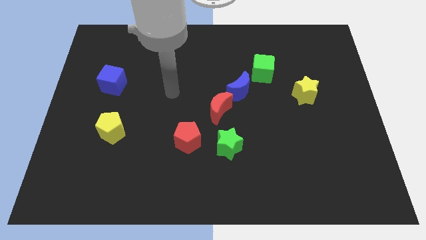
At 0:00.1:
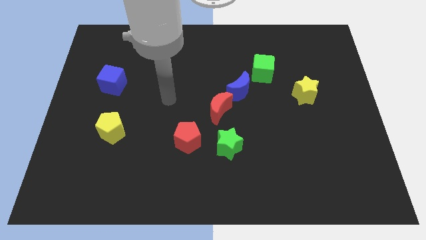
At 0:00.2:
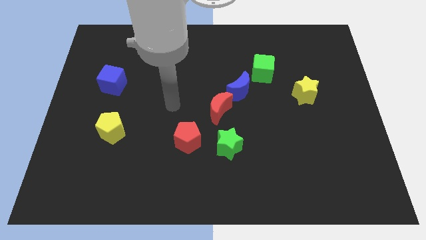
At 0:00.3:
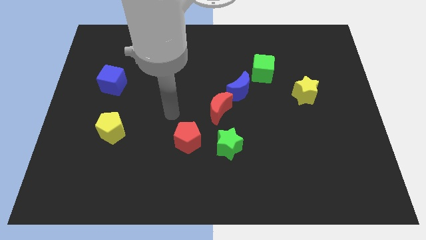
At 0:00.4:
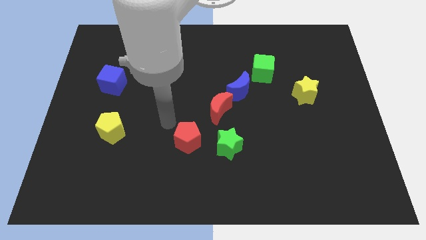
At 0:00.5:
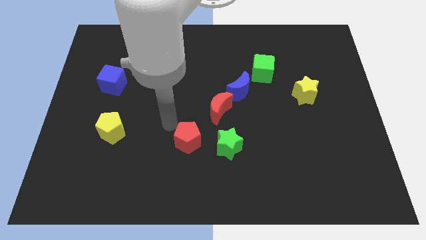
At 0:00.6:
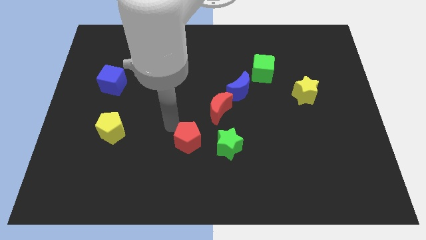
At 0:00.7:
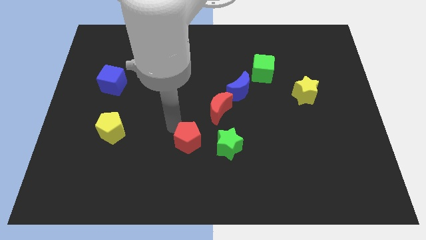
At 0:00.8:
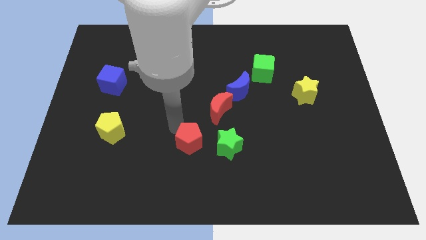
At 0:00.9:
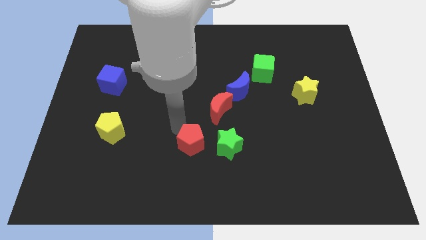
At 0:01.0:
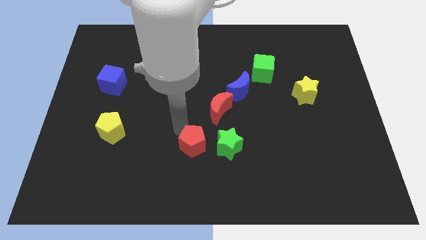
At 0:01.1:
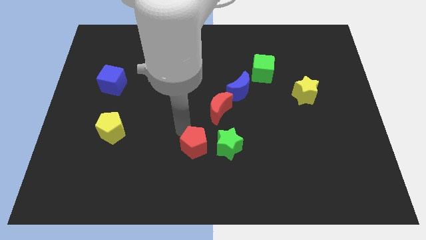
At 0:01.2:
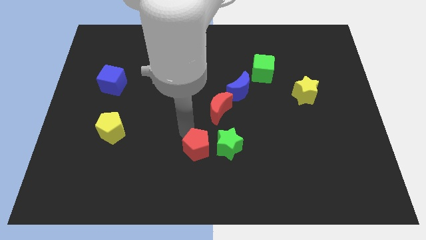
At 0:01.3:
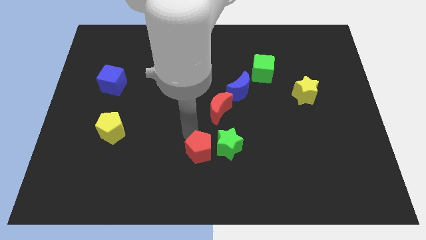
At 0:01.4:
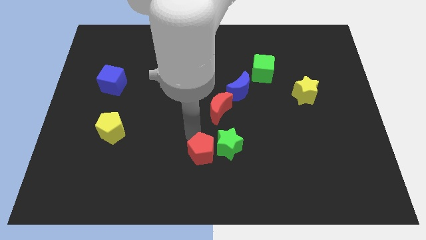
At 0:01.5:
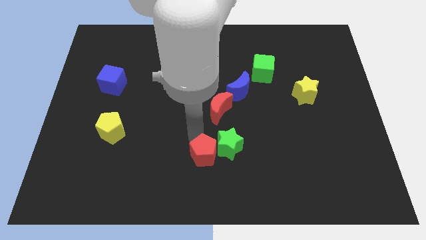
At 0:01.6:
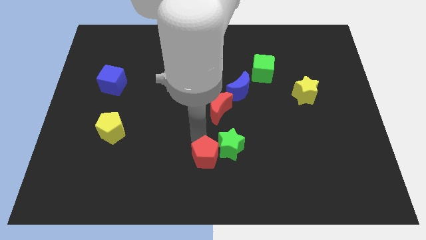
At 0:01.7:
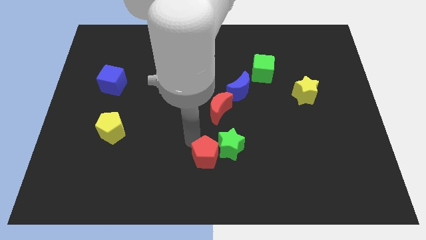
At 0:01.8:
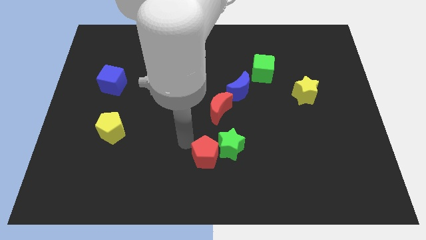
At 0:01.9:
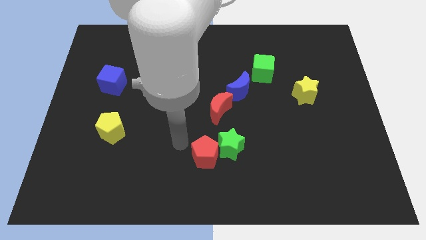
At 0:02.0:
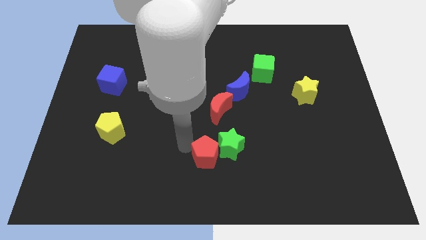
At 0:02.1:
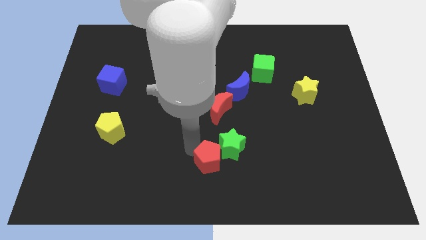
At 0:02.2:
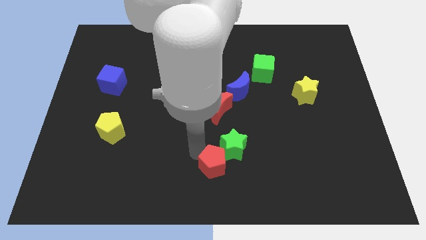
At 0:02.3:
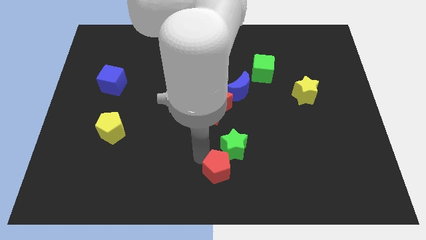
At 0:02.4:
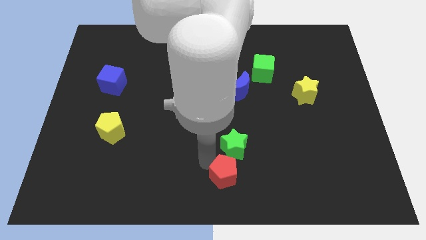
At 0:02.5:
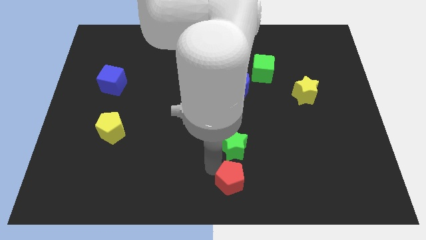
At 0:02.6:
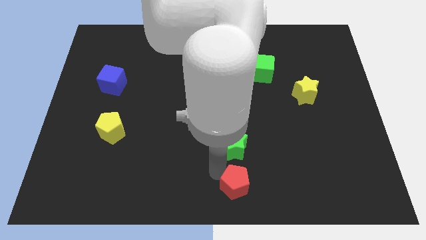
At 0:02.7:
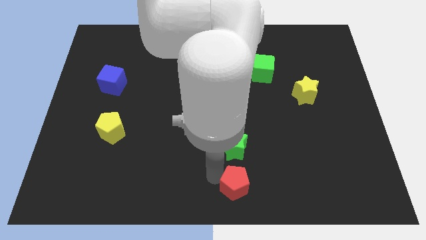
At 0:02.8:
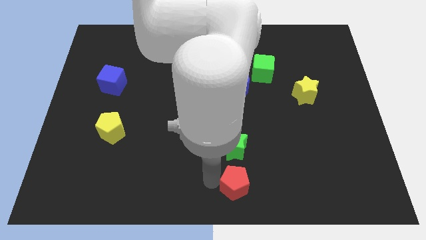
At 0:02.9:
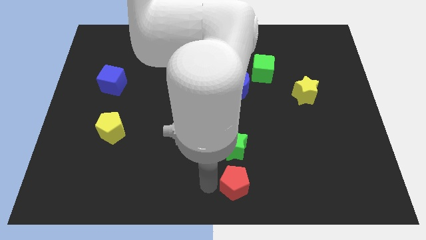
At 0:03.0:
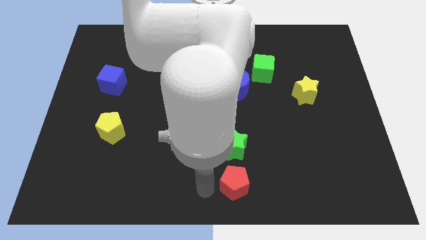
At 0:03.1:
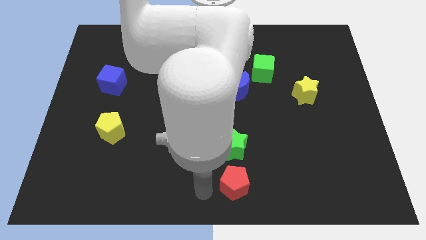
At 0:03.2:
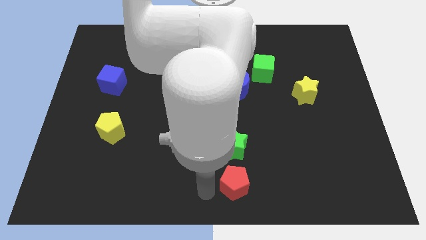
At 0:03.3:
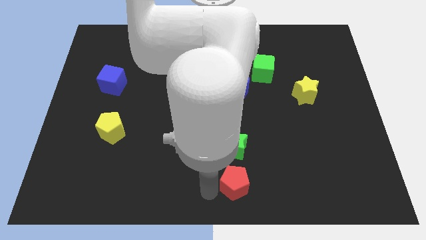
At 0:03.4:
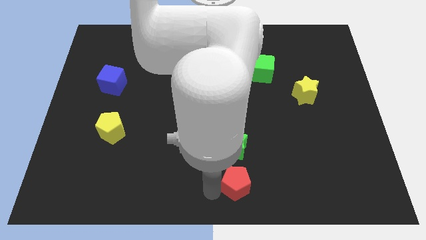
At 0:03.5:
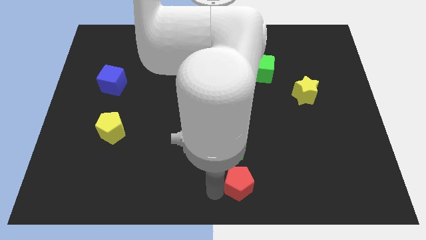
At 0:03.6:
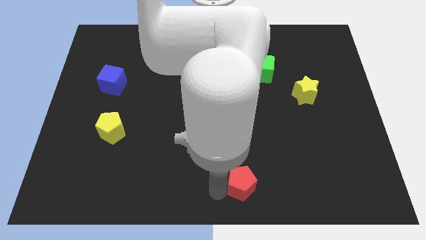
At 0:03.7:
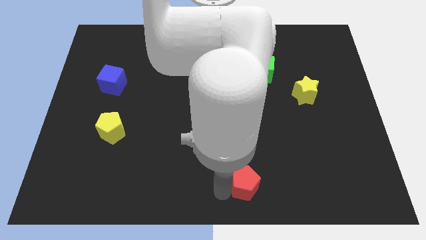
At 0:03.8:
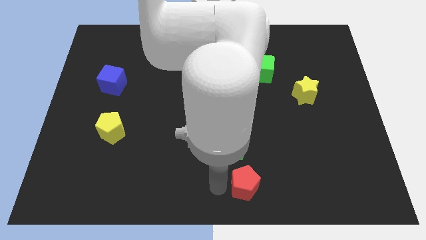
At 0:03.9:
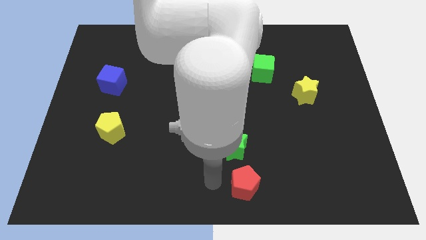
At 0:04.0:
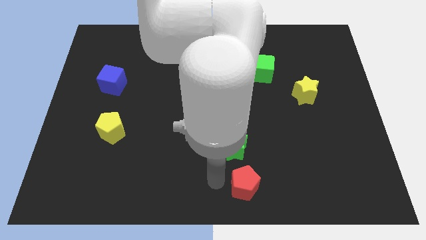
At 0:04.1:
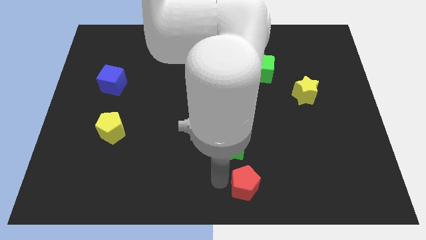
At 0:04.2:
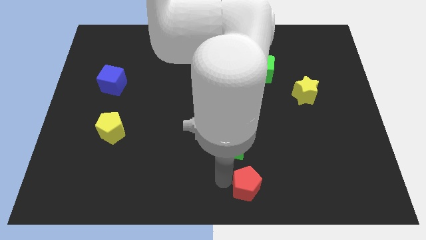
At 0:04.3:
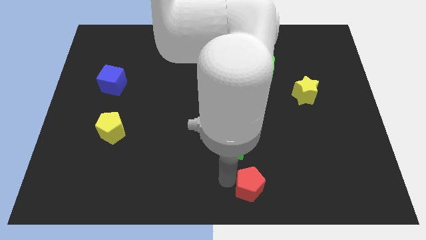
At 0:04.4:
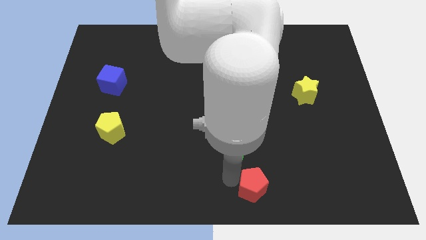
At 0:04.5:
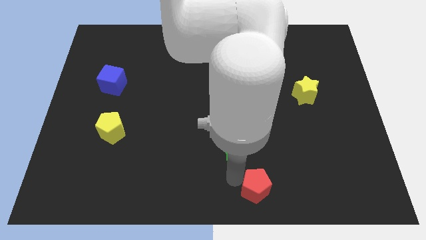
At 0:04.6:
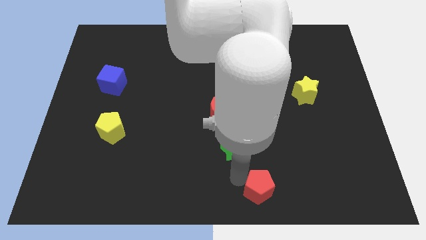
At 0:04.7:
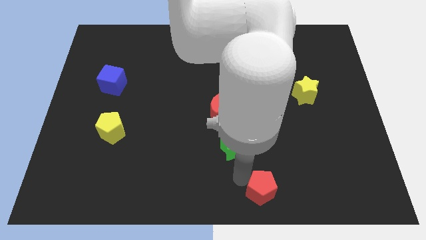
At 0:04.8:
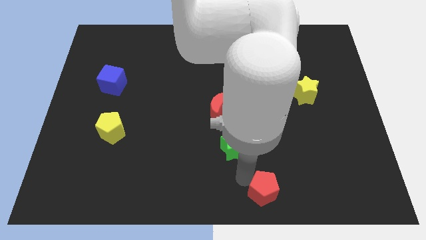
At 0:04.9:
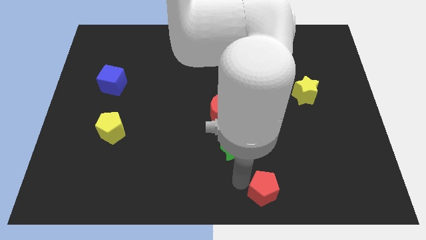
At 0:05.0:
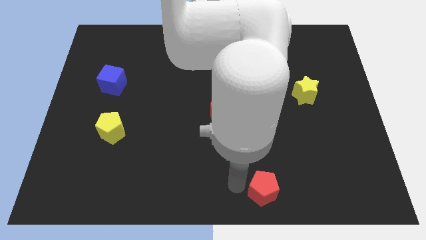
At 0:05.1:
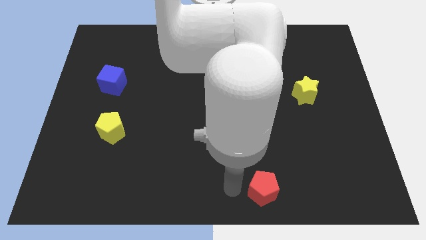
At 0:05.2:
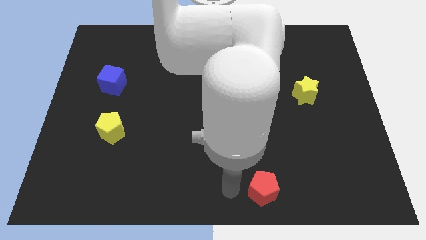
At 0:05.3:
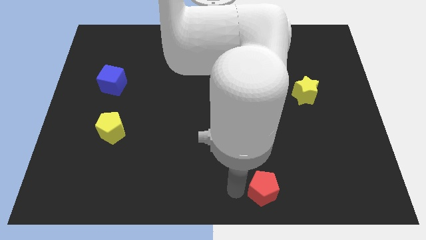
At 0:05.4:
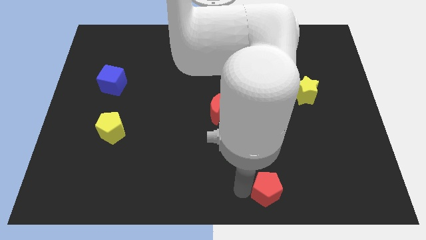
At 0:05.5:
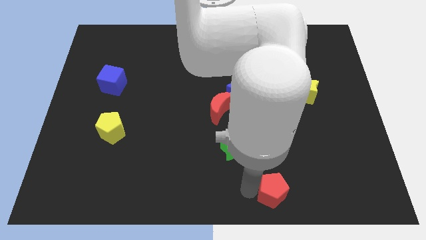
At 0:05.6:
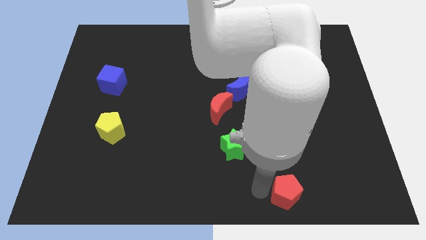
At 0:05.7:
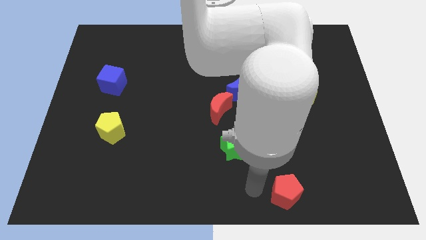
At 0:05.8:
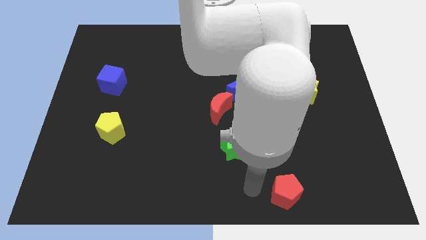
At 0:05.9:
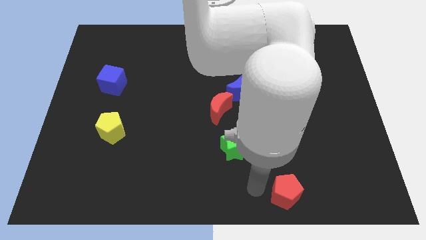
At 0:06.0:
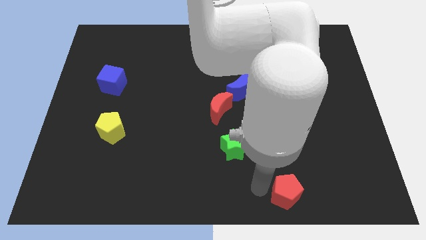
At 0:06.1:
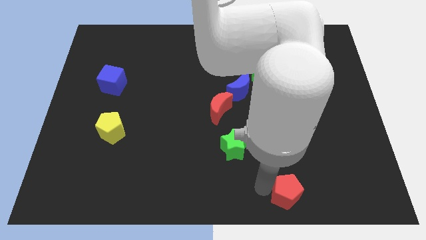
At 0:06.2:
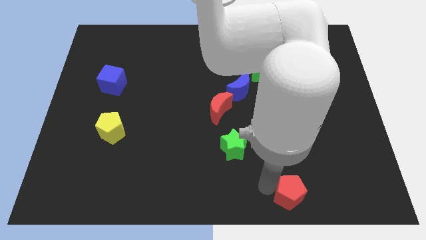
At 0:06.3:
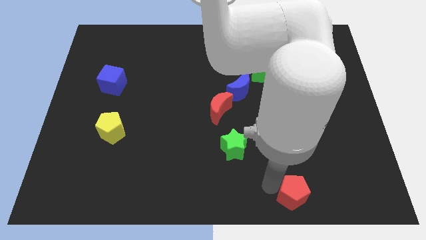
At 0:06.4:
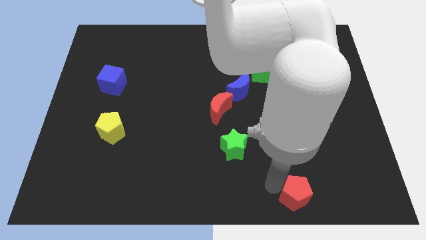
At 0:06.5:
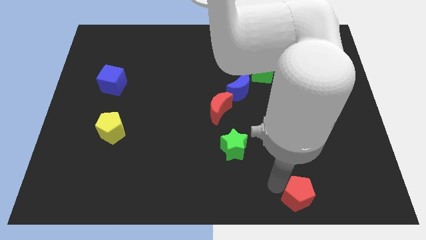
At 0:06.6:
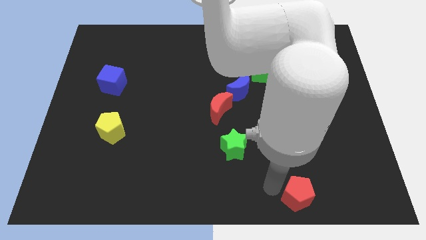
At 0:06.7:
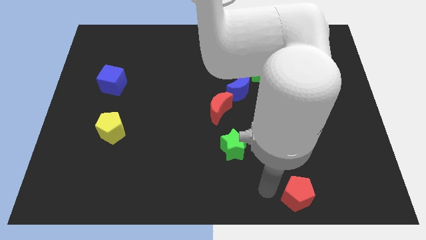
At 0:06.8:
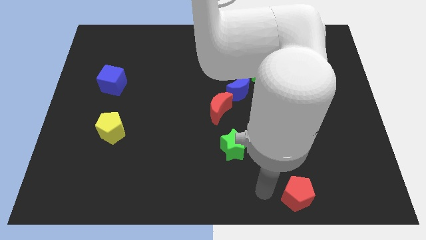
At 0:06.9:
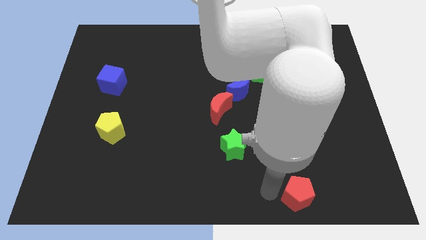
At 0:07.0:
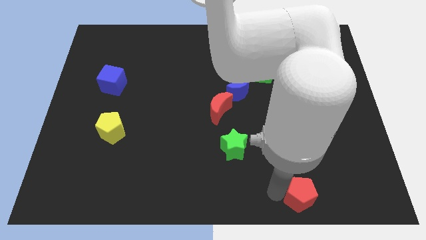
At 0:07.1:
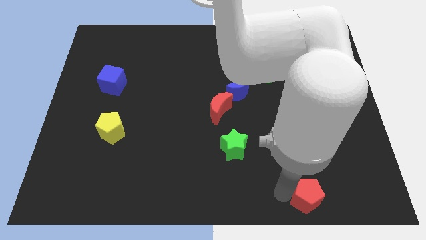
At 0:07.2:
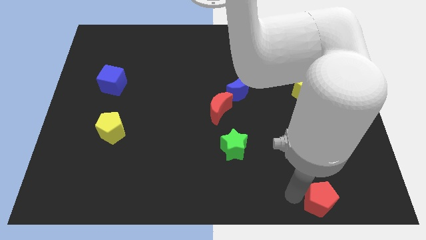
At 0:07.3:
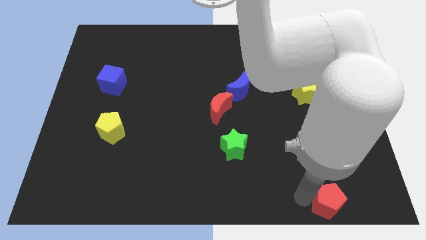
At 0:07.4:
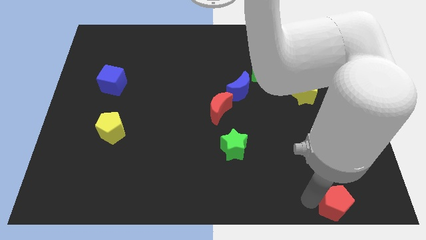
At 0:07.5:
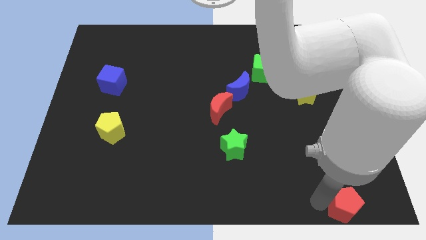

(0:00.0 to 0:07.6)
slide the red pentagon to the bottom right corner
